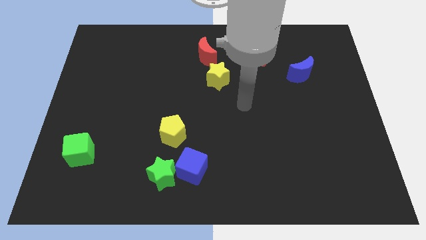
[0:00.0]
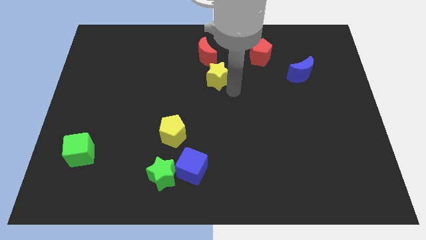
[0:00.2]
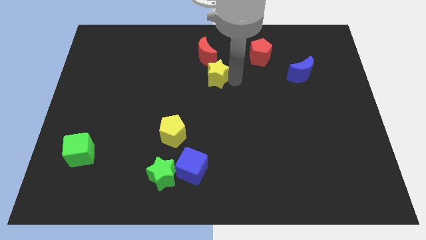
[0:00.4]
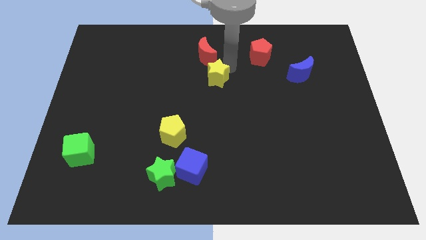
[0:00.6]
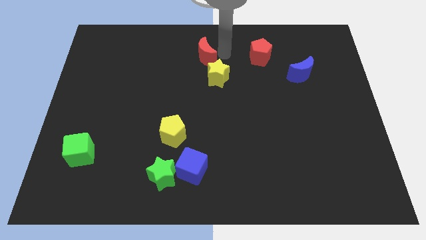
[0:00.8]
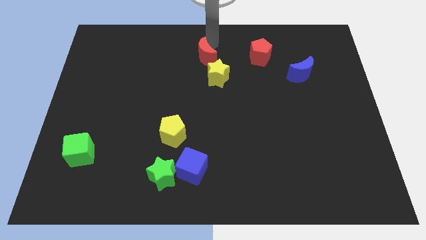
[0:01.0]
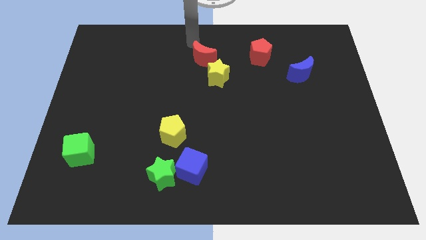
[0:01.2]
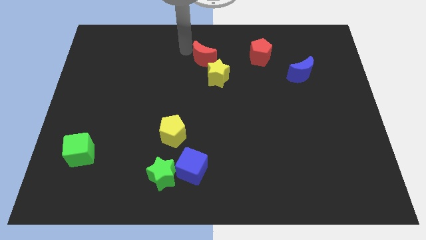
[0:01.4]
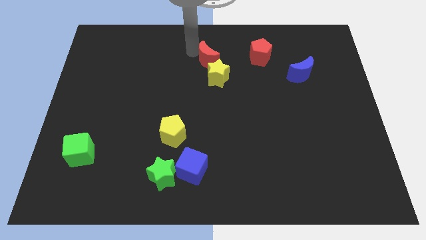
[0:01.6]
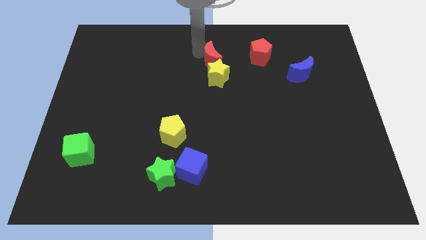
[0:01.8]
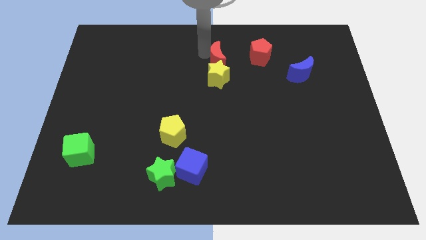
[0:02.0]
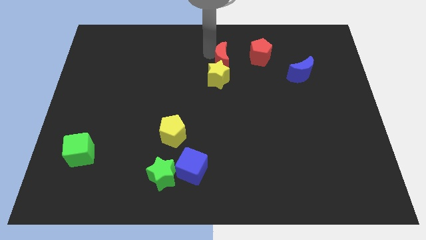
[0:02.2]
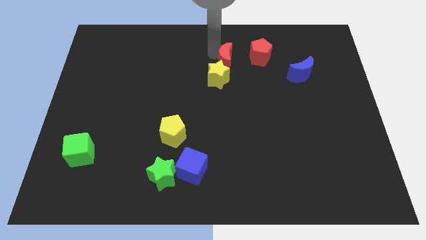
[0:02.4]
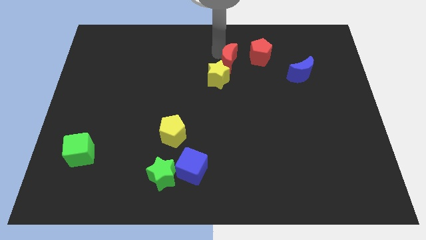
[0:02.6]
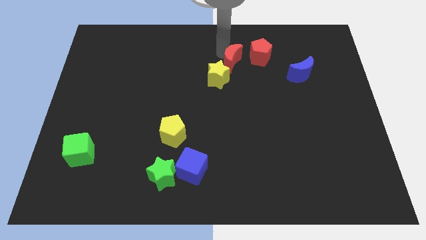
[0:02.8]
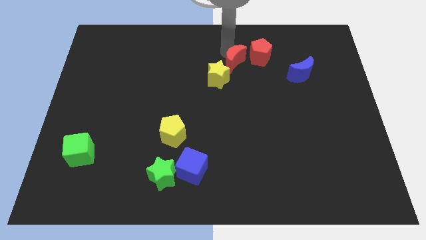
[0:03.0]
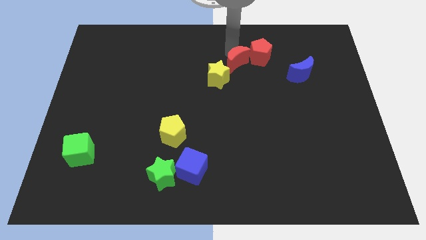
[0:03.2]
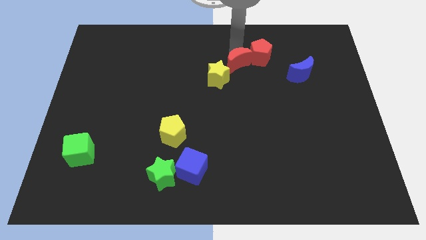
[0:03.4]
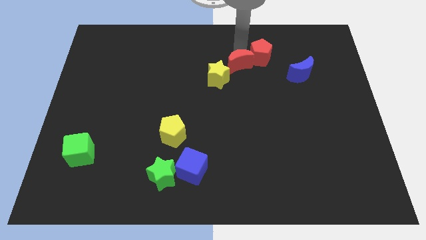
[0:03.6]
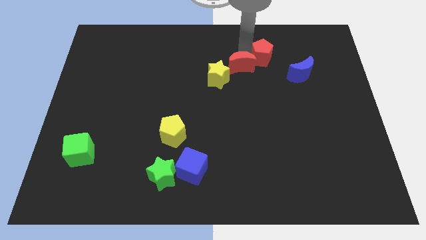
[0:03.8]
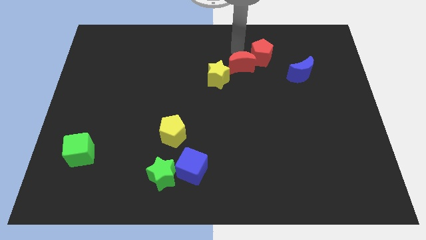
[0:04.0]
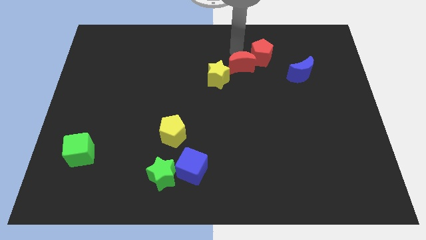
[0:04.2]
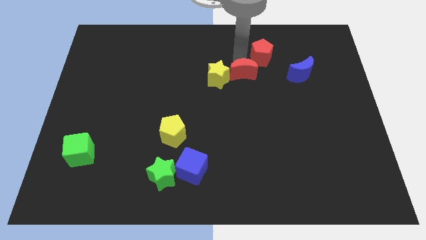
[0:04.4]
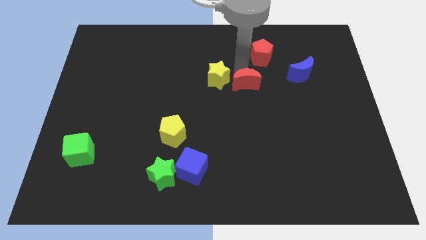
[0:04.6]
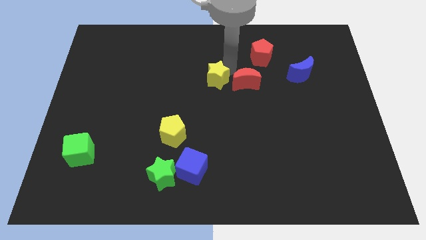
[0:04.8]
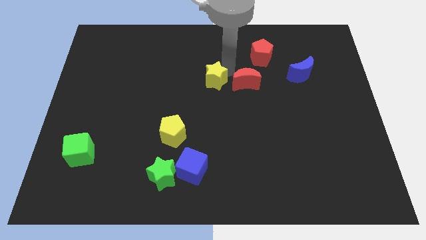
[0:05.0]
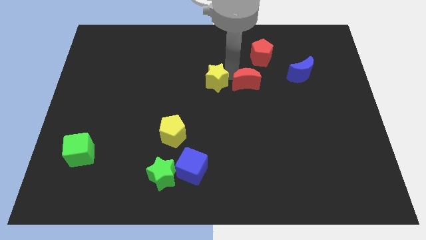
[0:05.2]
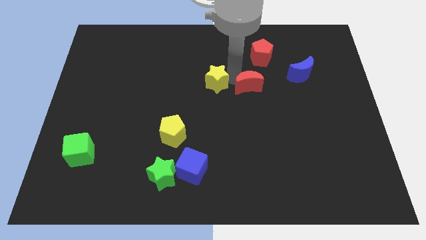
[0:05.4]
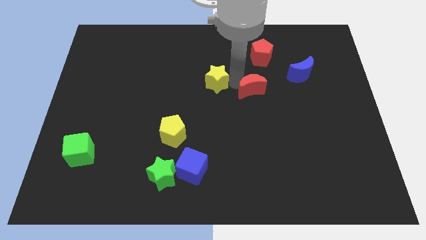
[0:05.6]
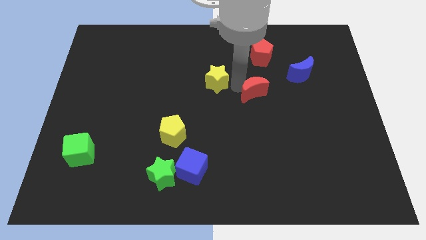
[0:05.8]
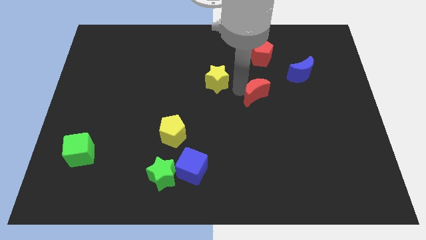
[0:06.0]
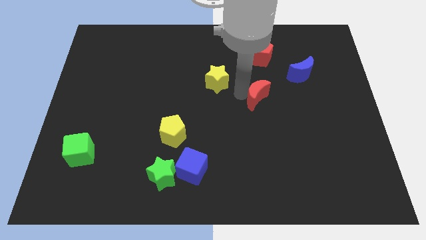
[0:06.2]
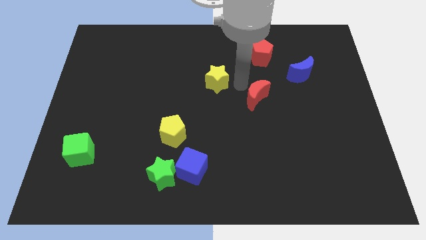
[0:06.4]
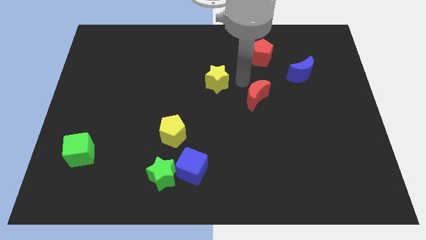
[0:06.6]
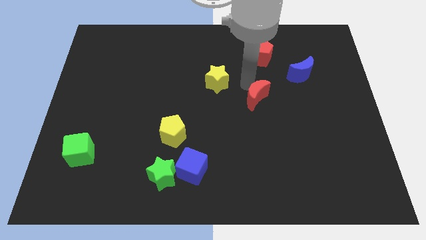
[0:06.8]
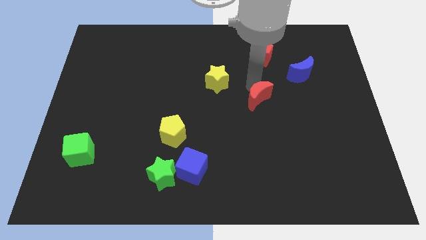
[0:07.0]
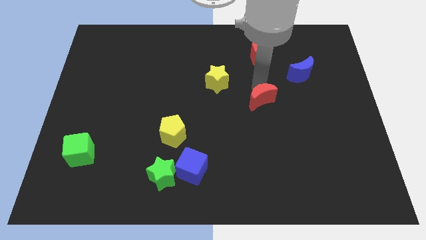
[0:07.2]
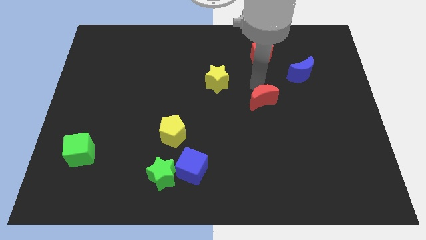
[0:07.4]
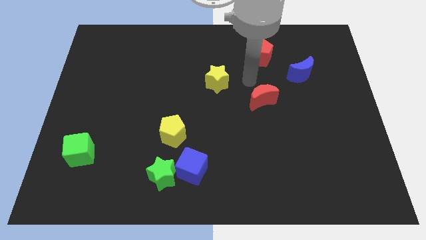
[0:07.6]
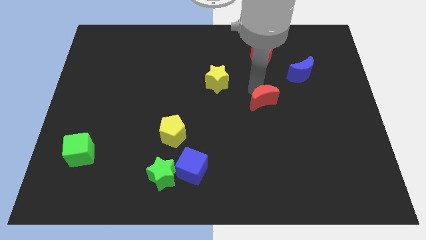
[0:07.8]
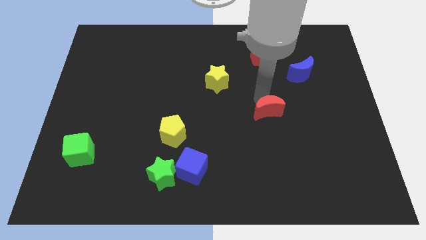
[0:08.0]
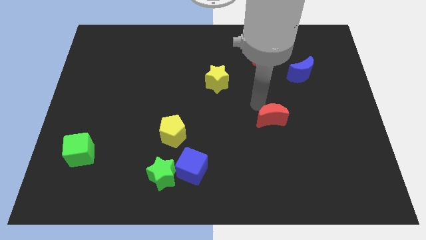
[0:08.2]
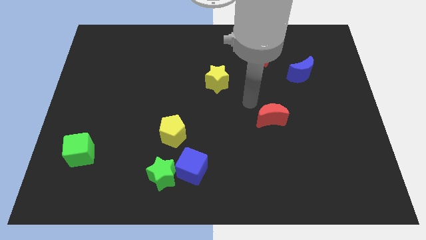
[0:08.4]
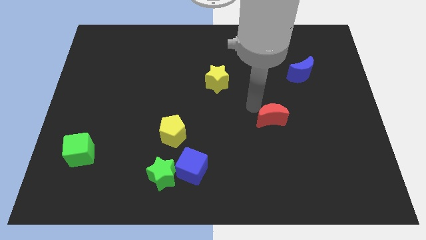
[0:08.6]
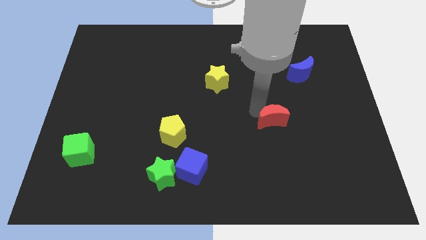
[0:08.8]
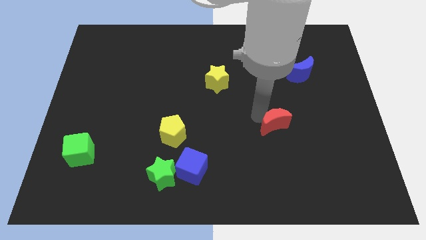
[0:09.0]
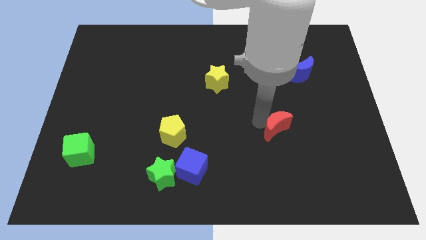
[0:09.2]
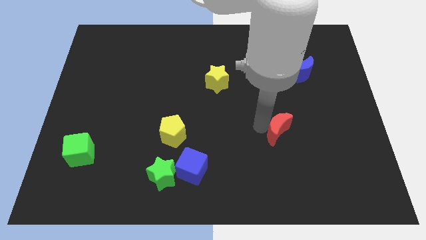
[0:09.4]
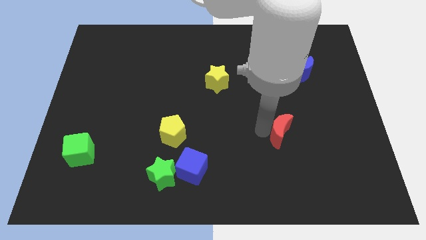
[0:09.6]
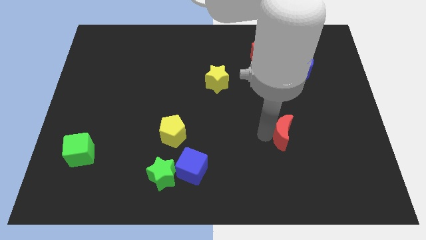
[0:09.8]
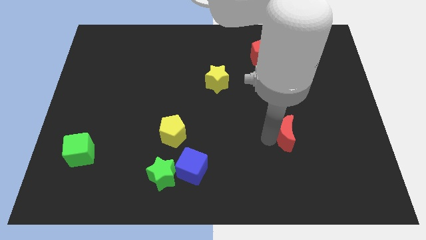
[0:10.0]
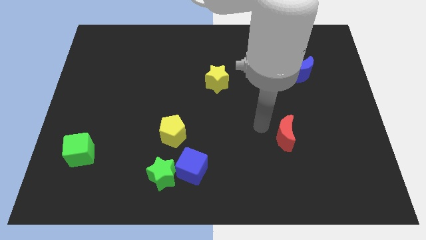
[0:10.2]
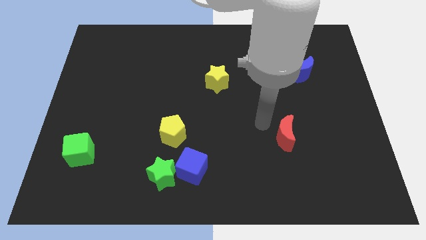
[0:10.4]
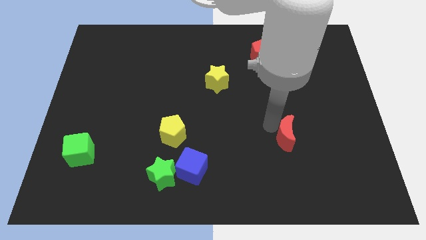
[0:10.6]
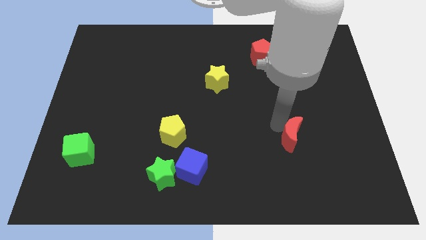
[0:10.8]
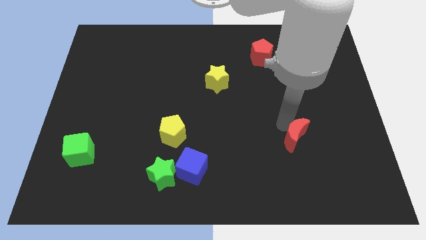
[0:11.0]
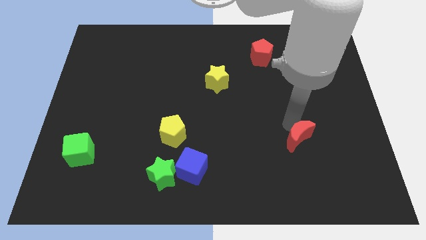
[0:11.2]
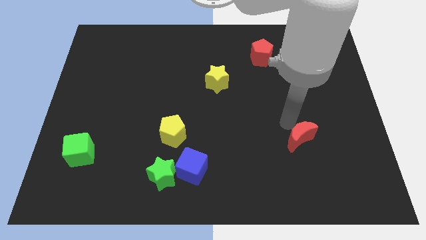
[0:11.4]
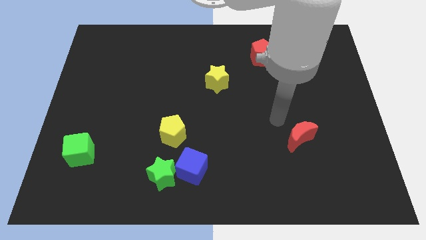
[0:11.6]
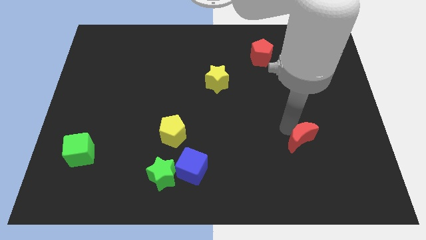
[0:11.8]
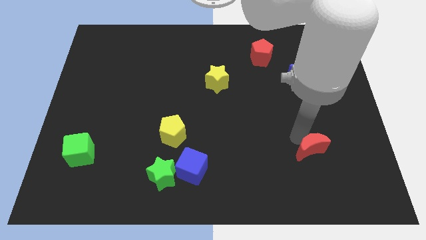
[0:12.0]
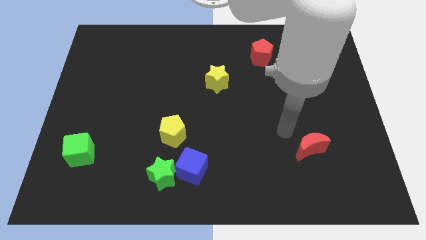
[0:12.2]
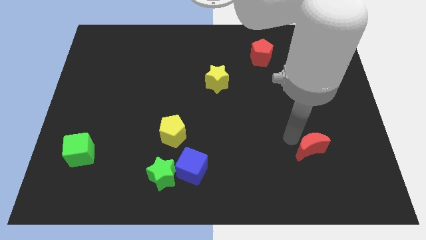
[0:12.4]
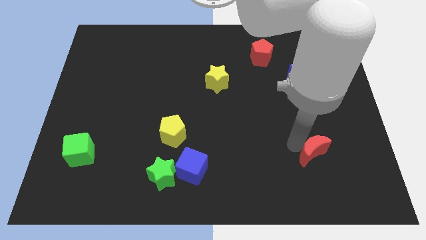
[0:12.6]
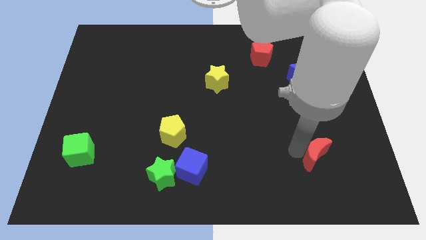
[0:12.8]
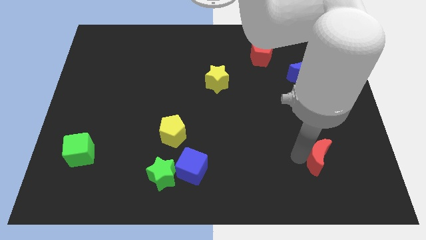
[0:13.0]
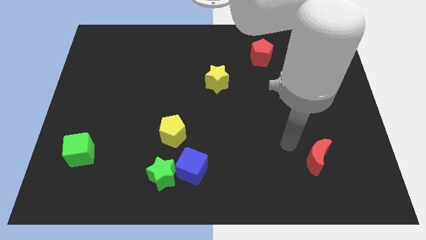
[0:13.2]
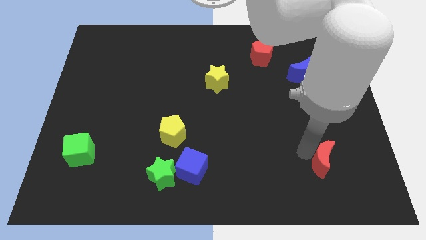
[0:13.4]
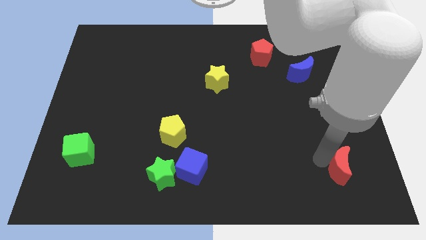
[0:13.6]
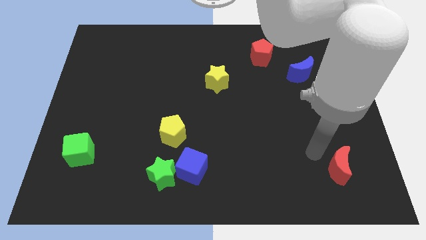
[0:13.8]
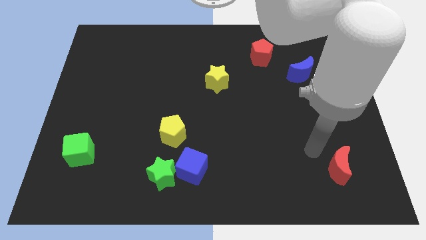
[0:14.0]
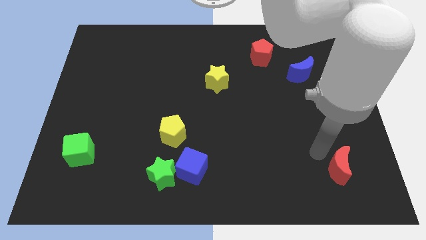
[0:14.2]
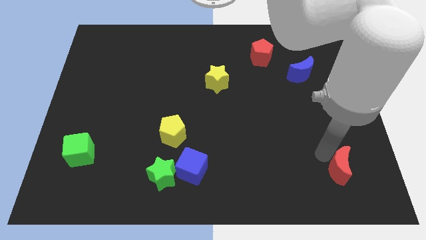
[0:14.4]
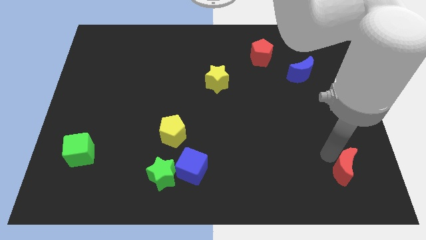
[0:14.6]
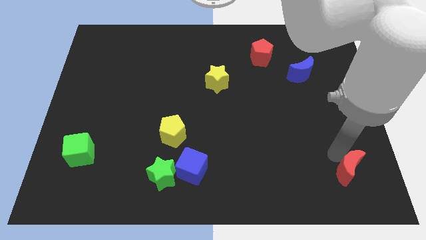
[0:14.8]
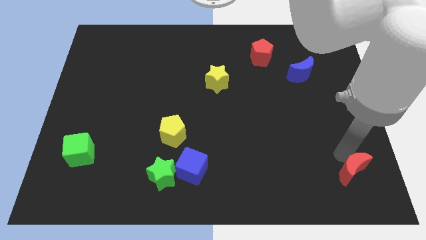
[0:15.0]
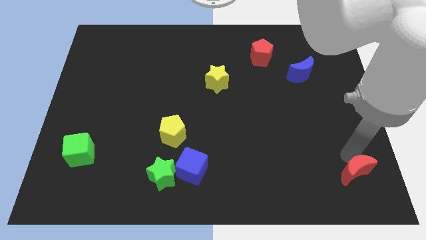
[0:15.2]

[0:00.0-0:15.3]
slide the red moon to the bottom right of the board
